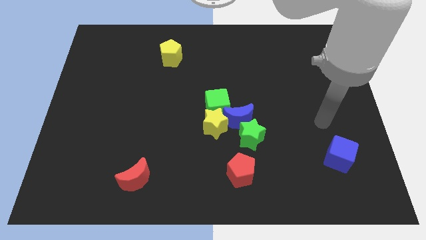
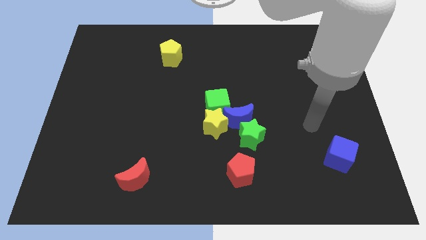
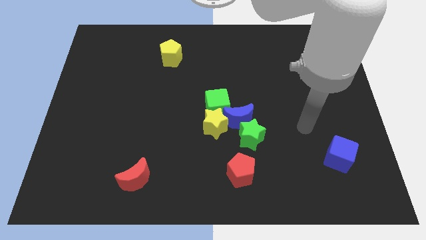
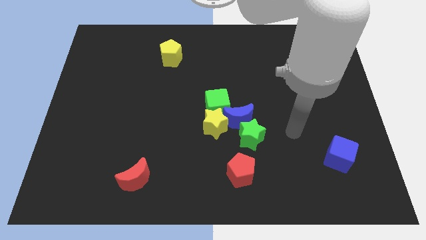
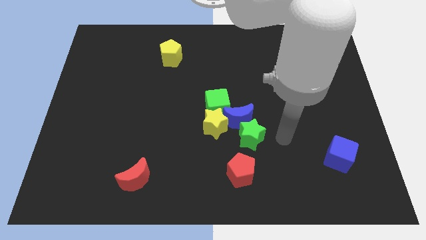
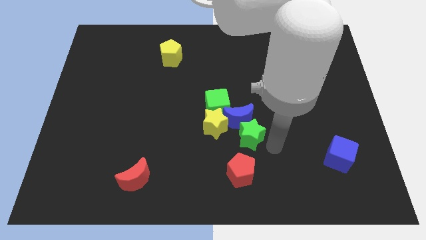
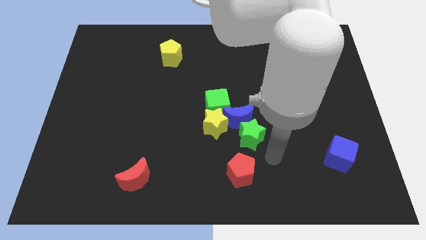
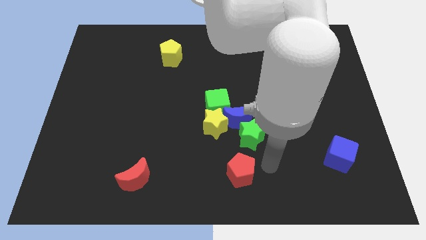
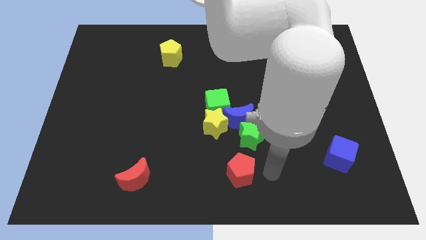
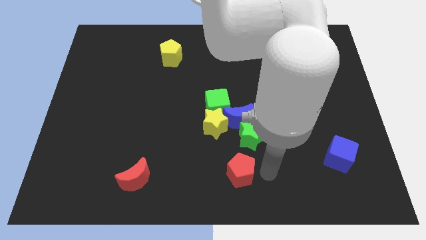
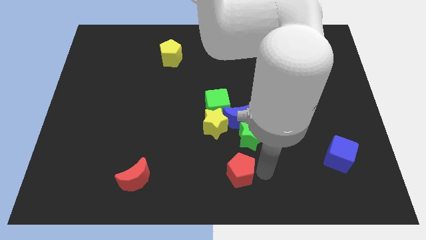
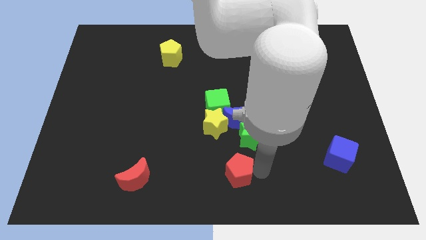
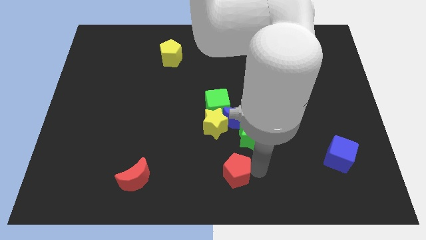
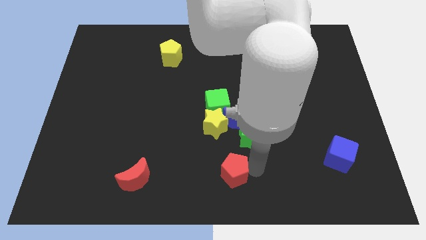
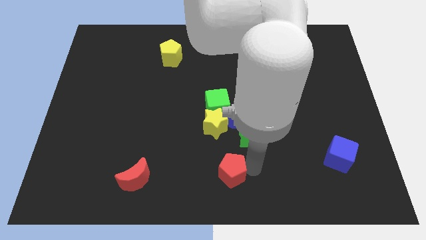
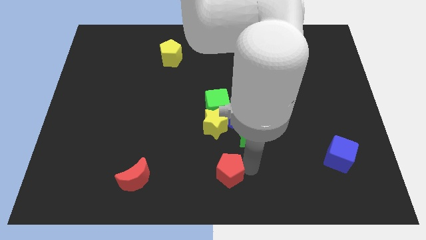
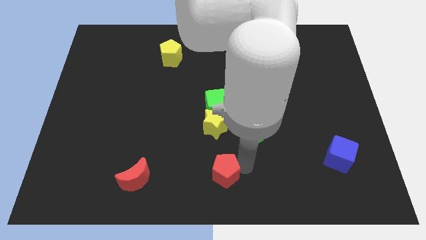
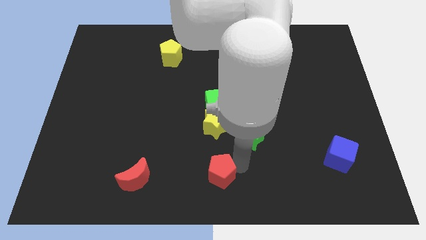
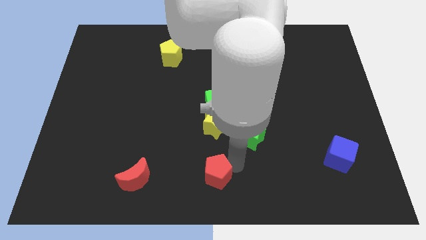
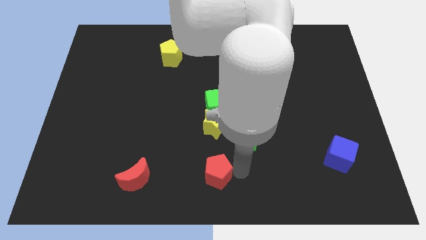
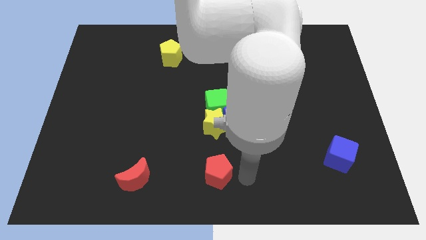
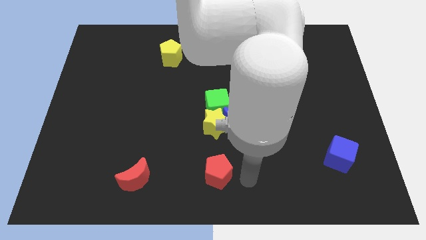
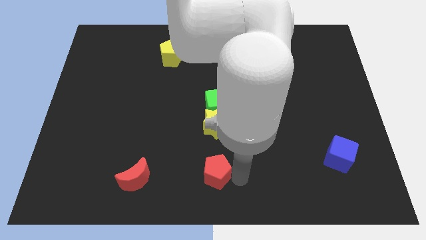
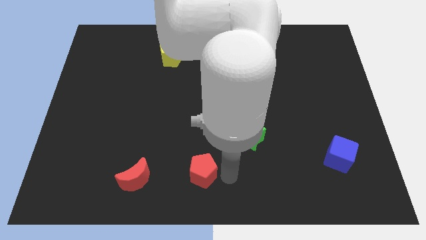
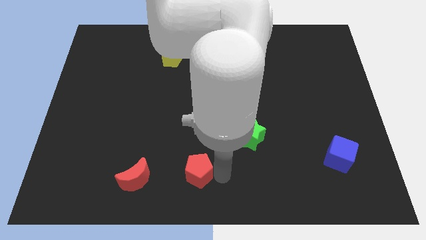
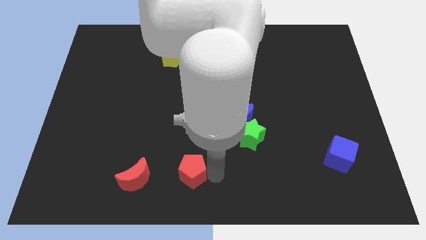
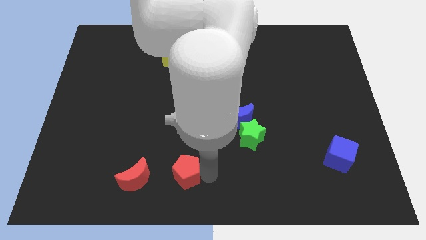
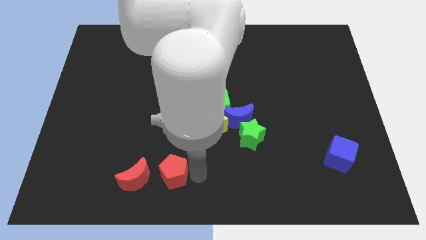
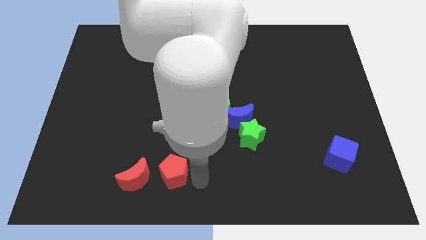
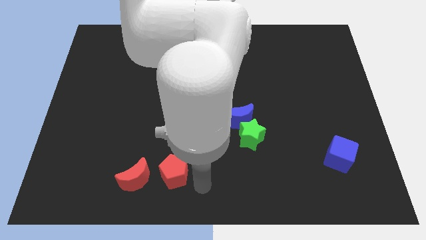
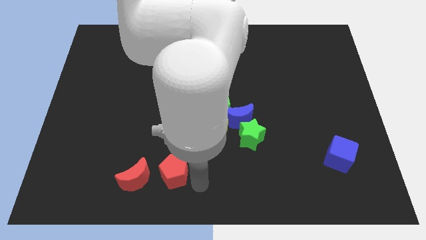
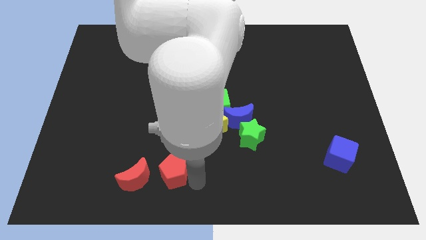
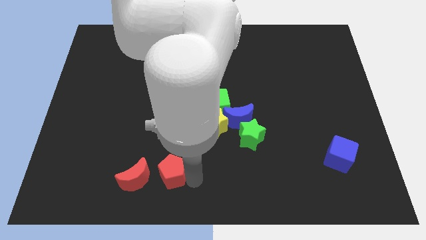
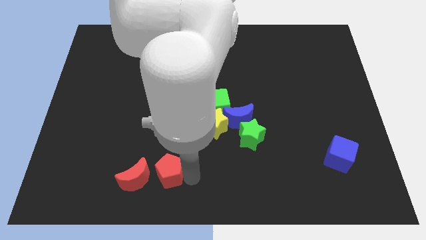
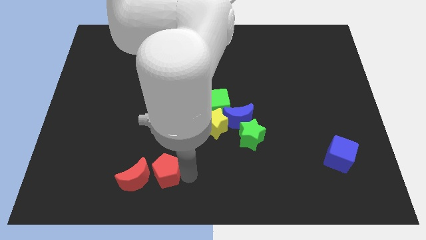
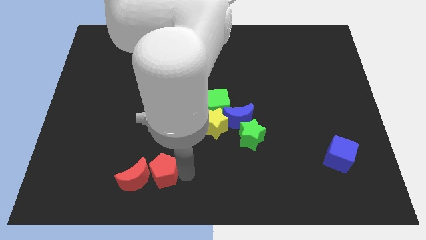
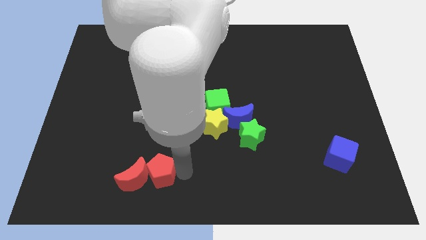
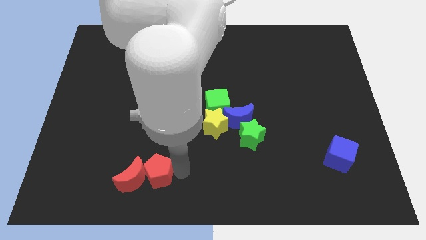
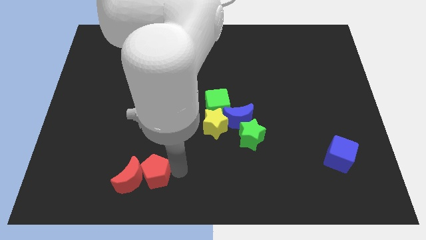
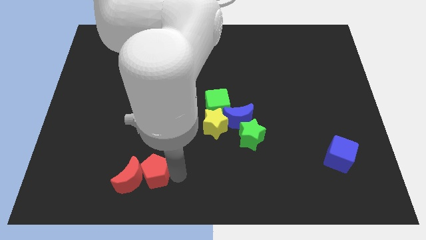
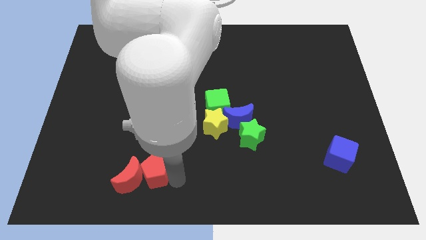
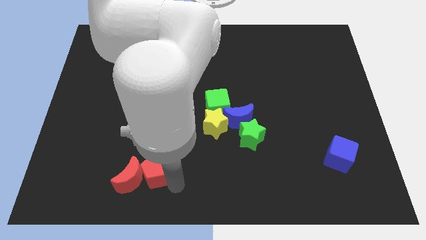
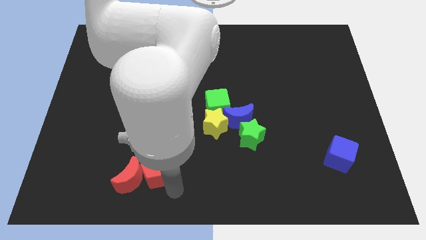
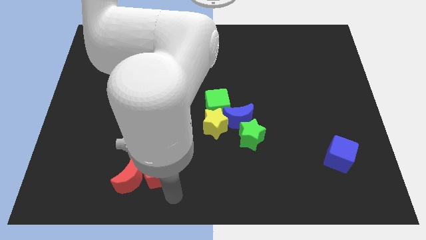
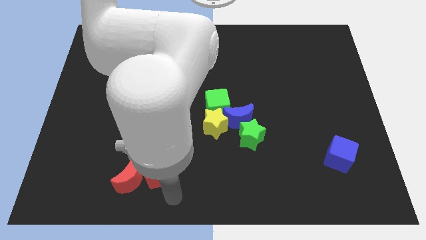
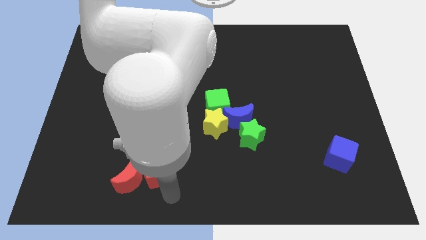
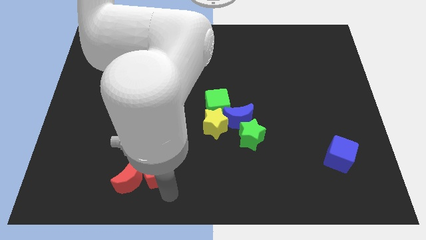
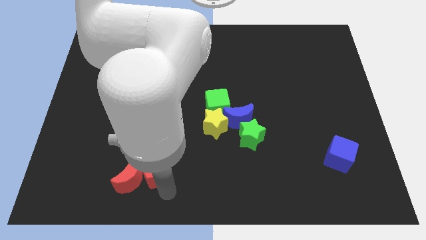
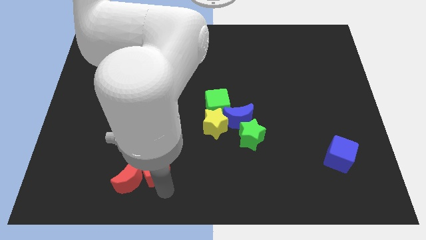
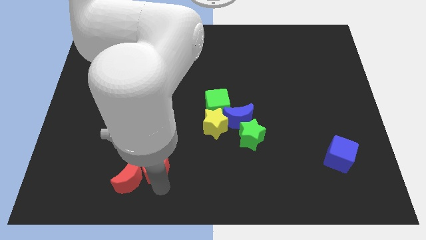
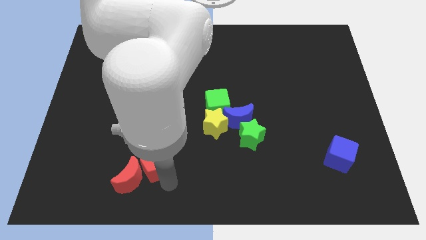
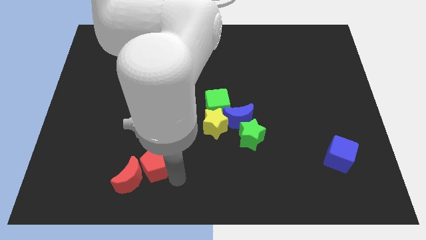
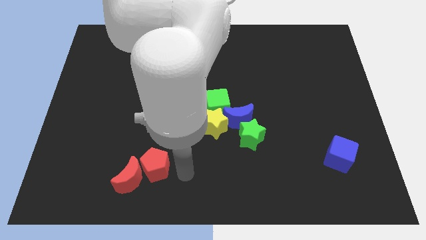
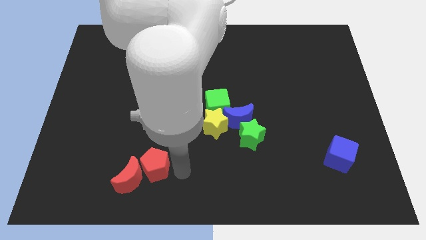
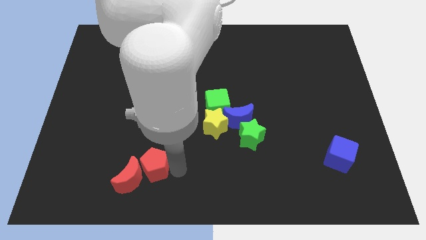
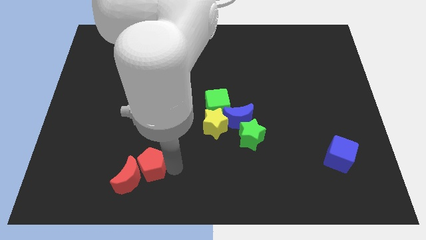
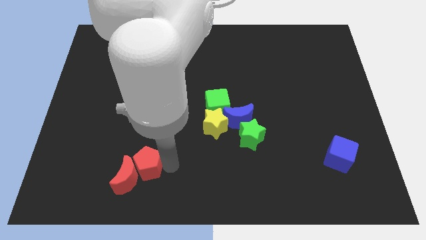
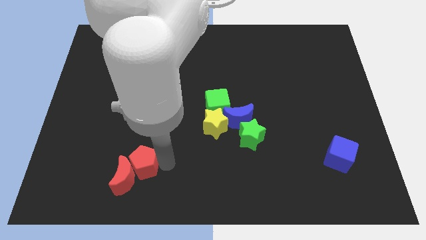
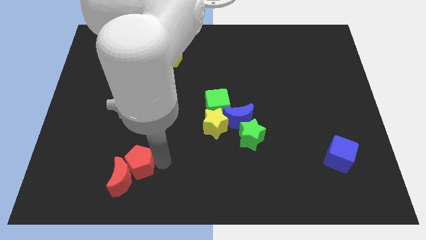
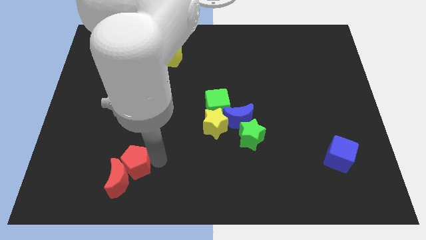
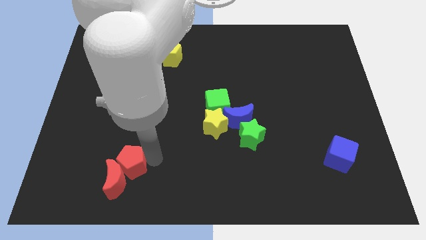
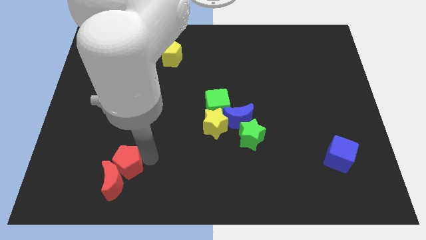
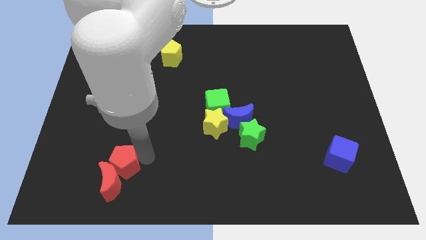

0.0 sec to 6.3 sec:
move the red pentagon diagonally up and to the left of the red moon

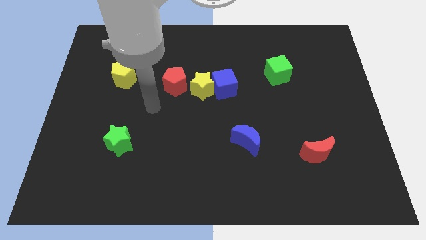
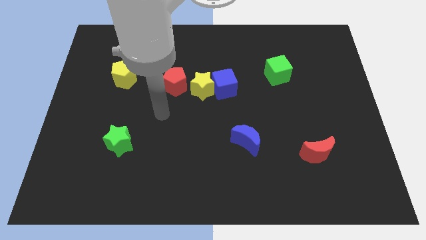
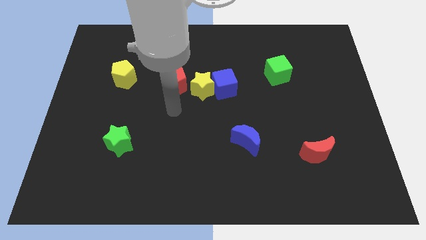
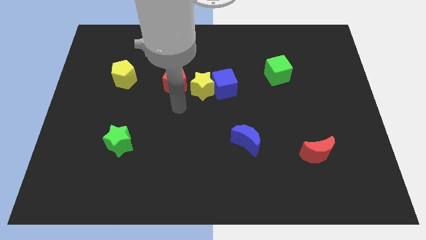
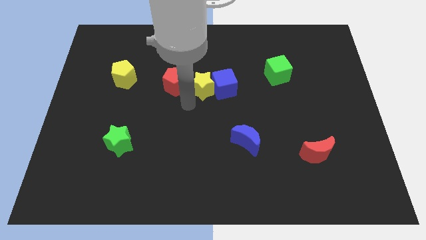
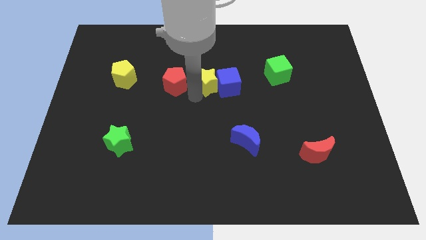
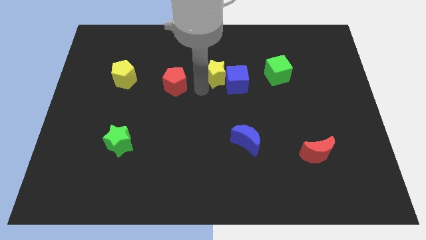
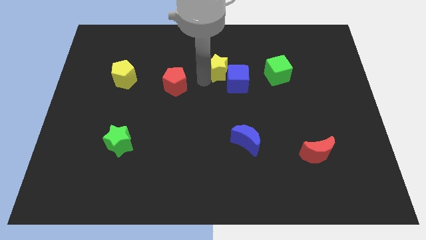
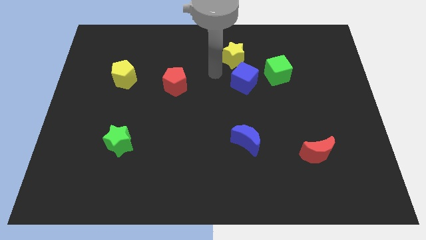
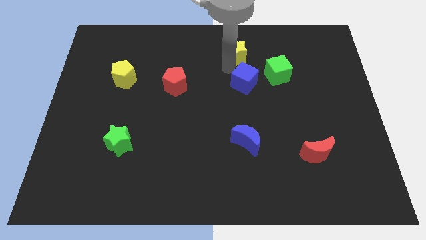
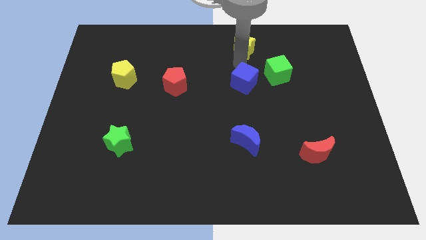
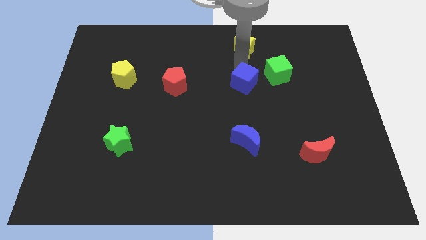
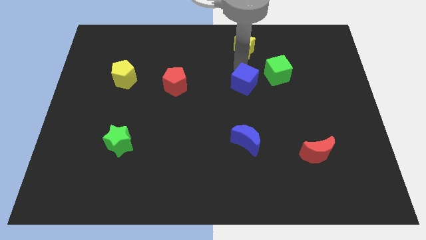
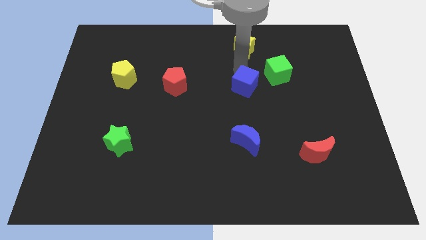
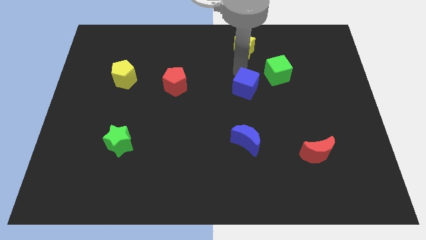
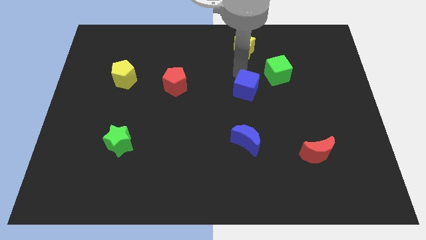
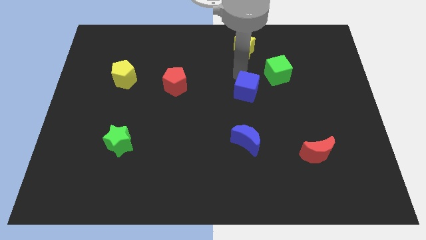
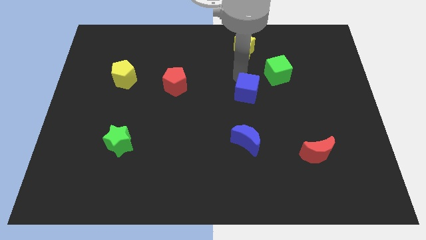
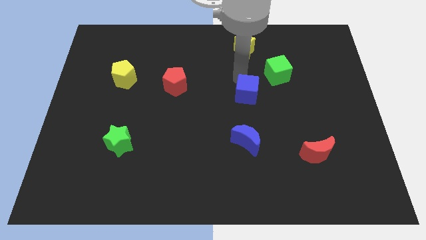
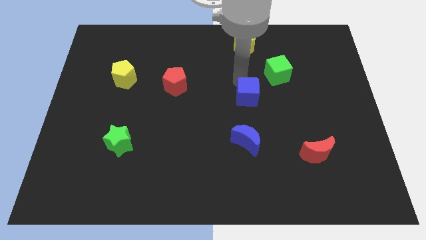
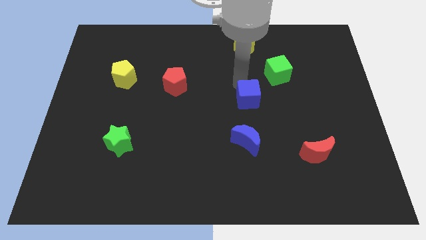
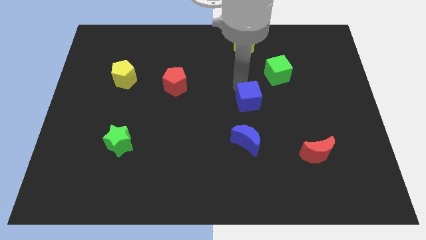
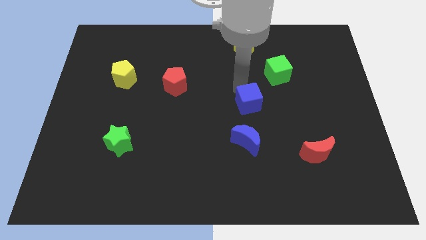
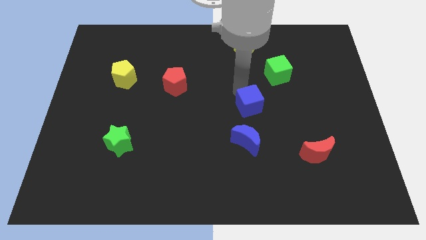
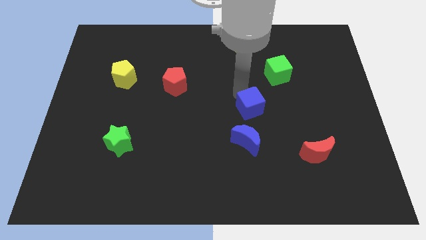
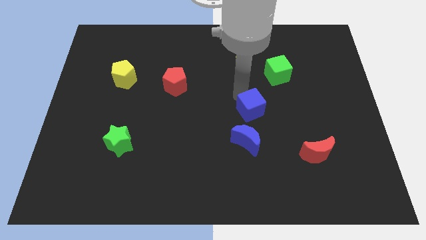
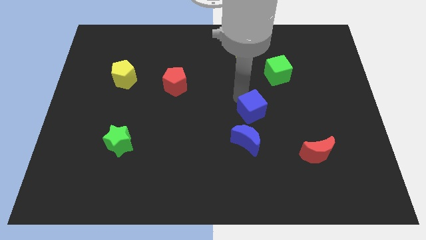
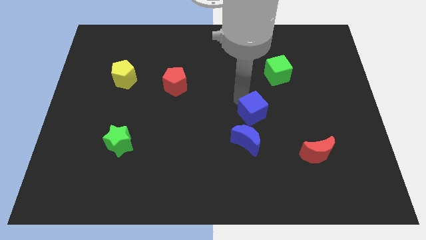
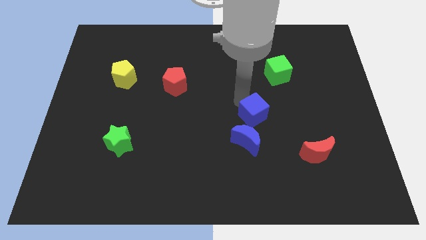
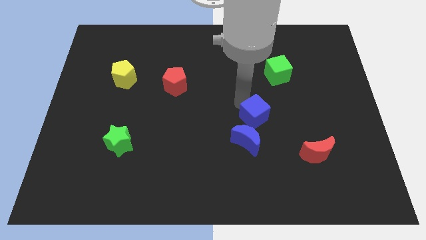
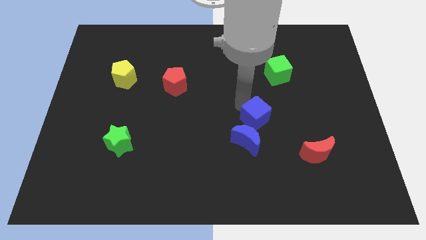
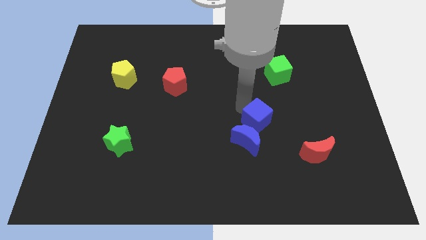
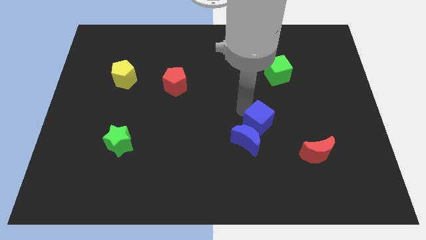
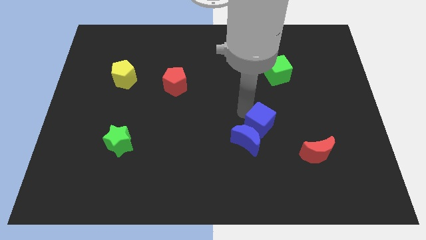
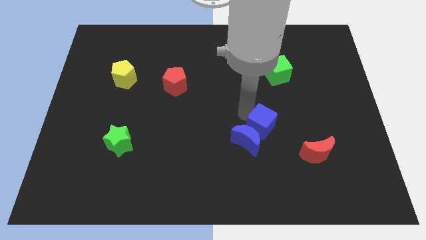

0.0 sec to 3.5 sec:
slide the blue cube just right of the blue moon
